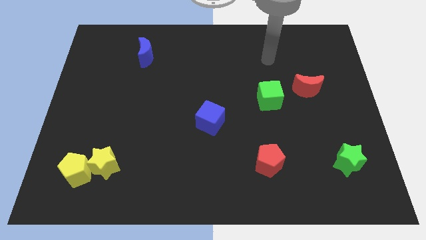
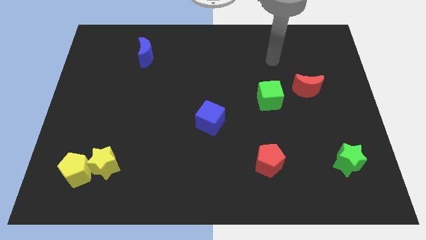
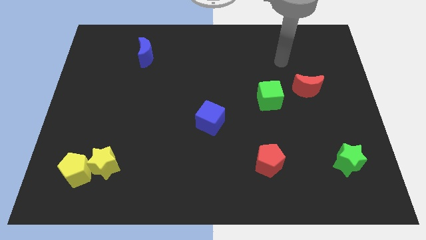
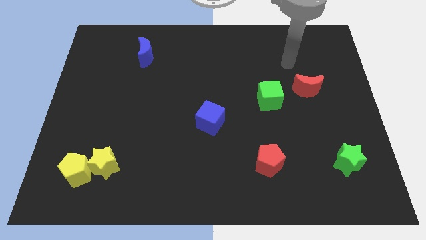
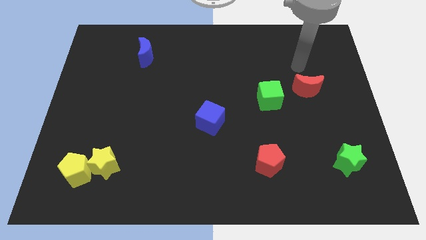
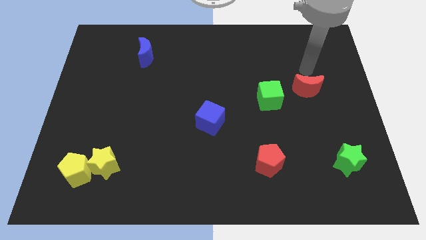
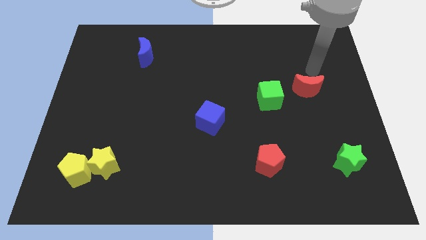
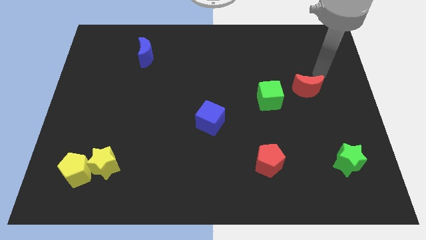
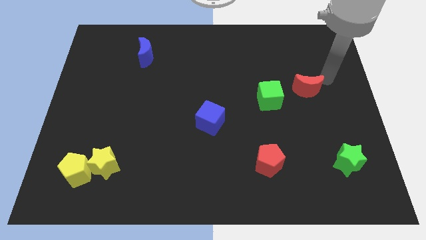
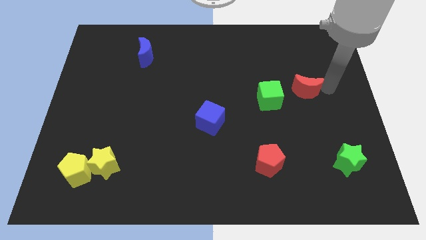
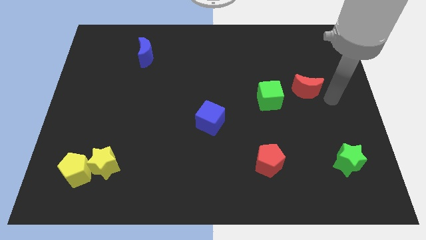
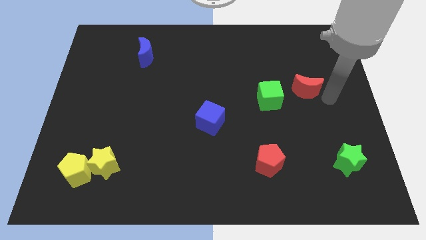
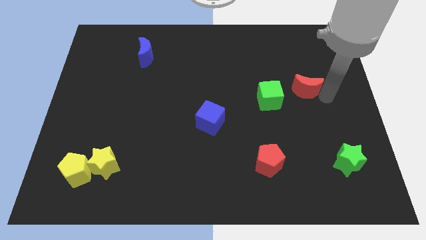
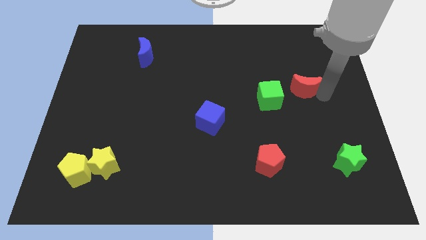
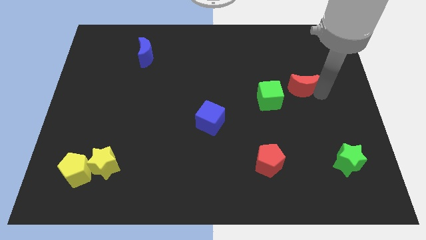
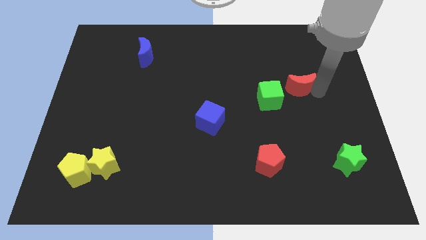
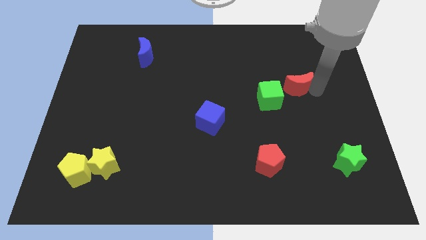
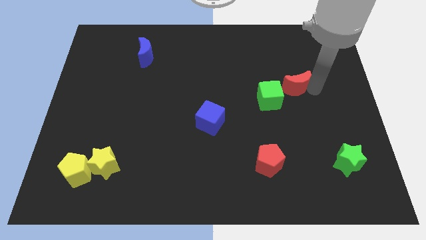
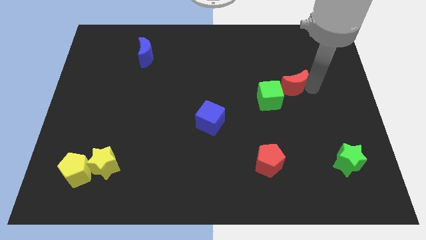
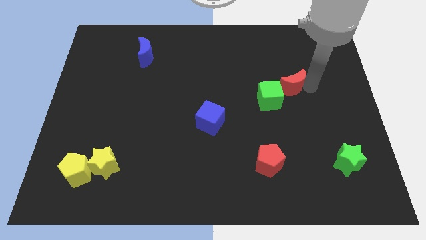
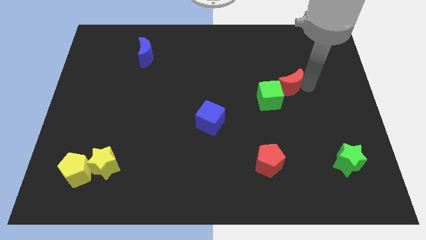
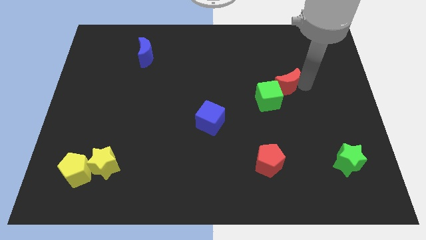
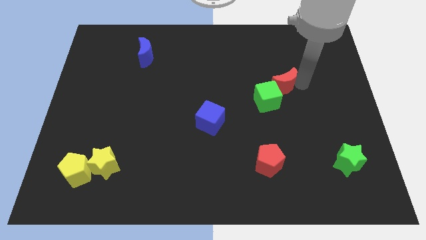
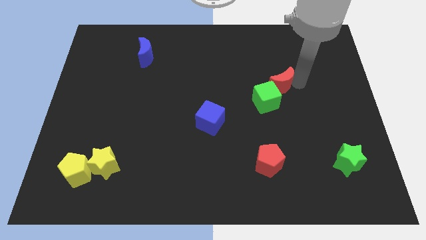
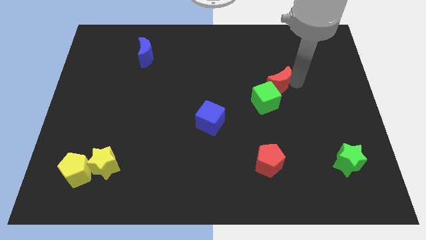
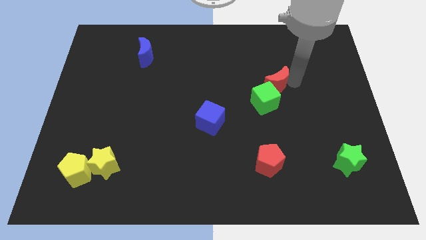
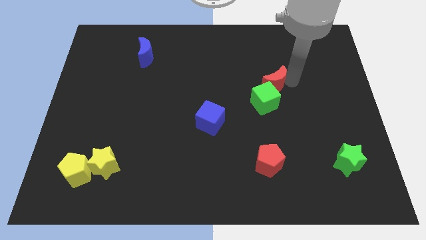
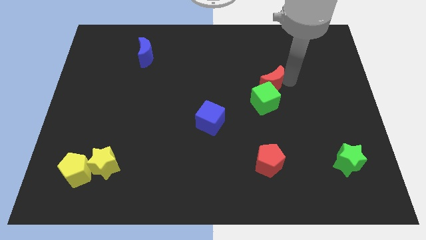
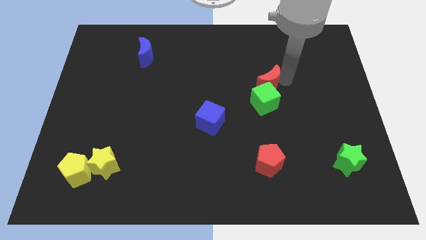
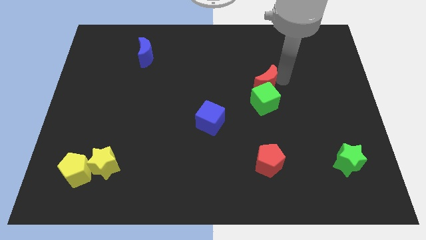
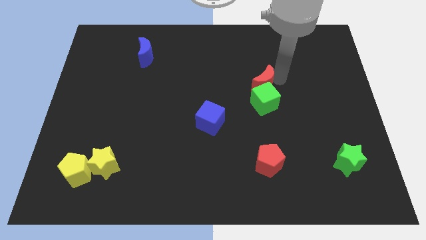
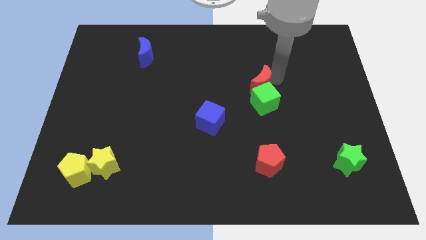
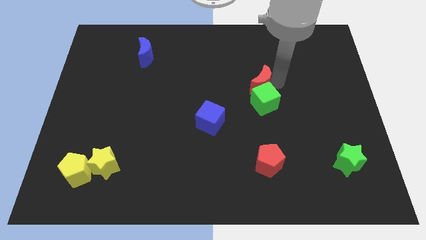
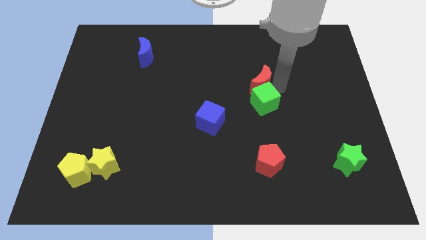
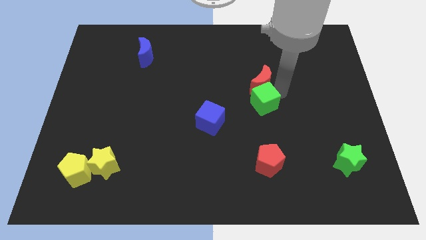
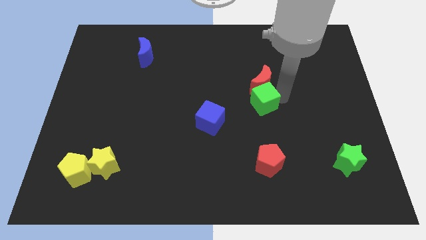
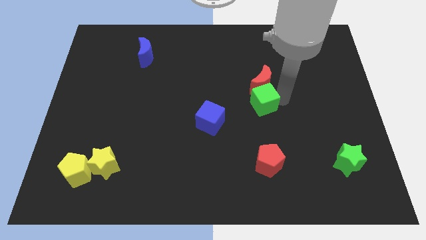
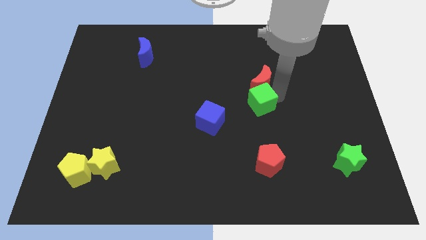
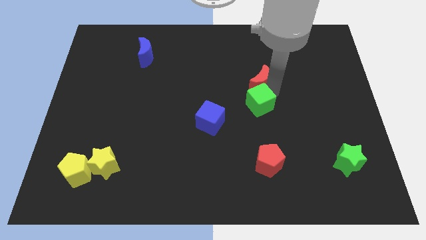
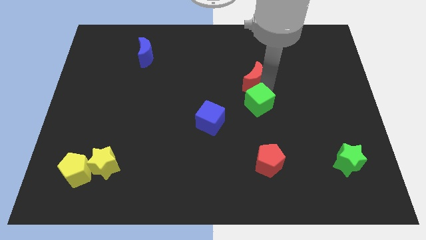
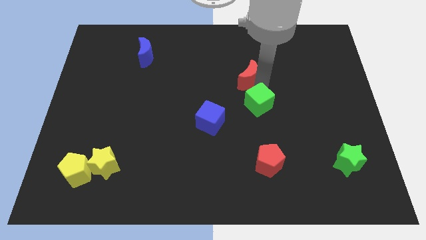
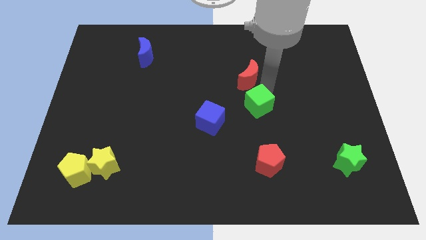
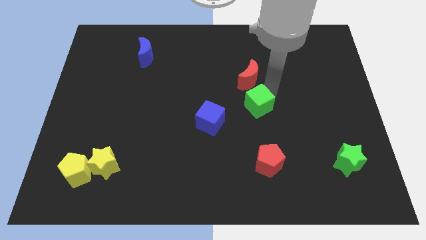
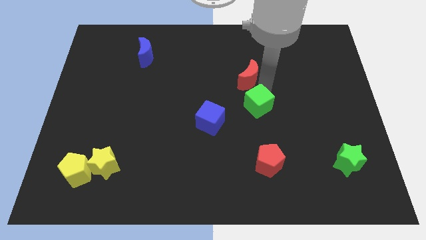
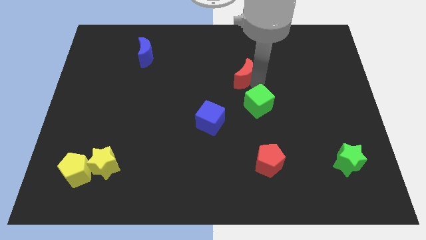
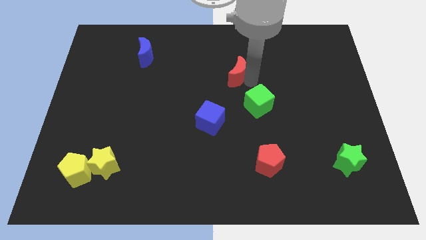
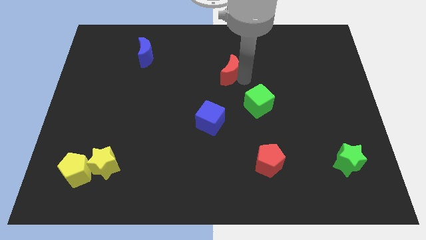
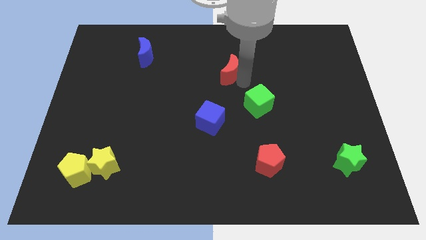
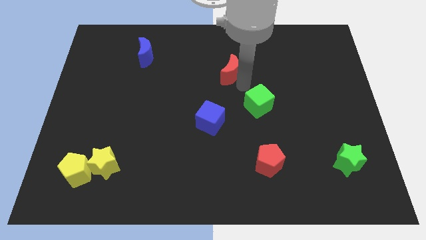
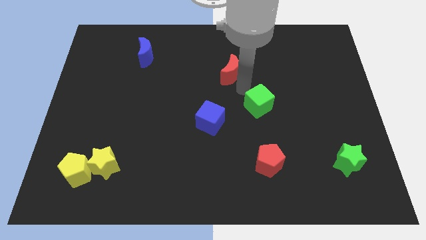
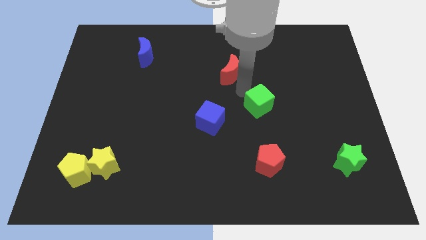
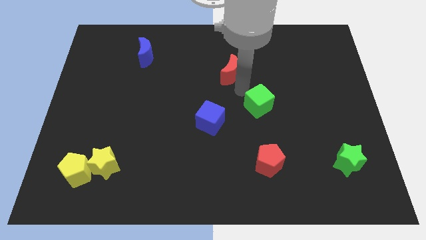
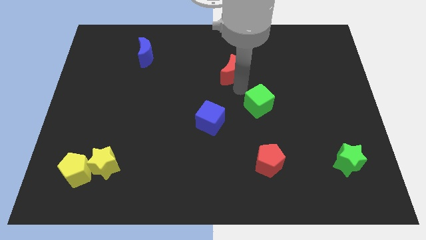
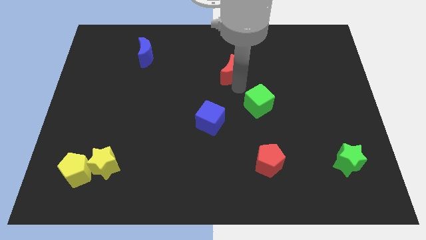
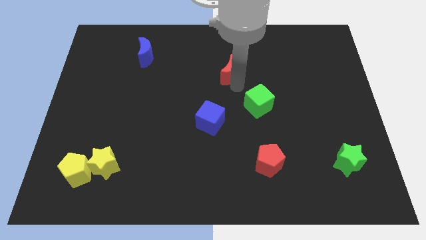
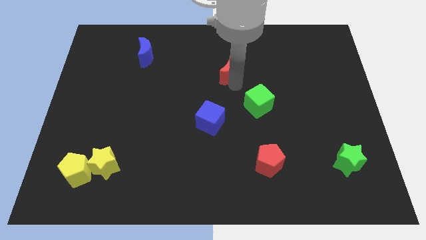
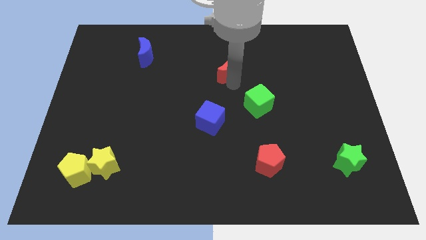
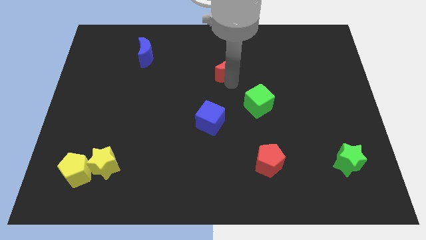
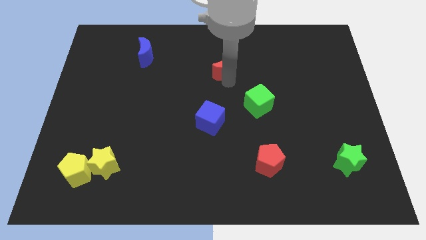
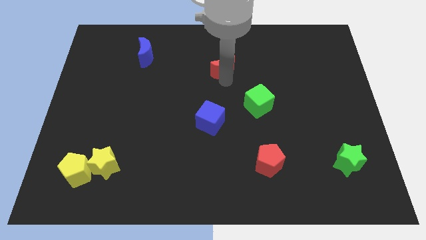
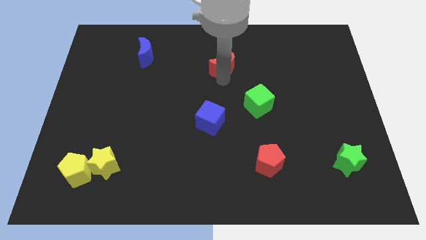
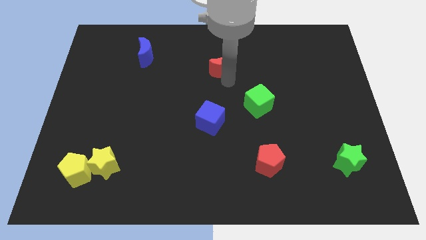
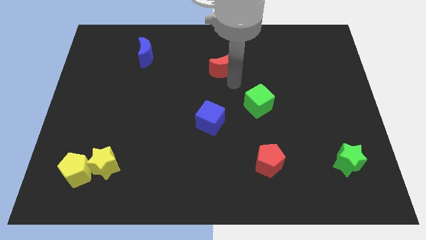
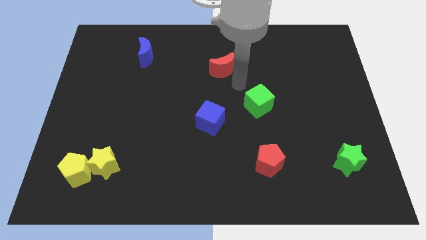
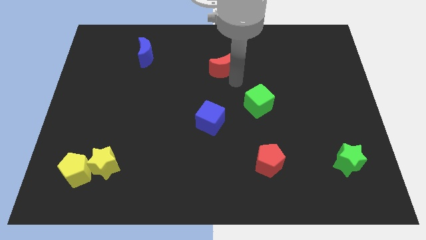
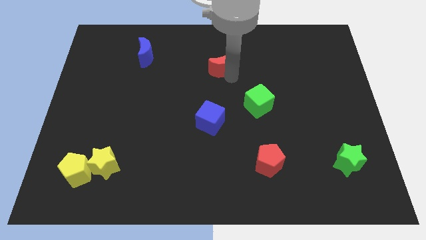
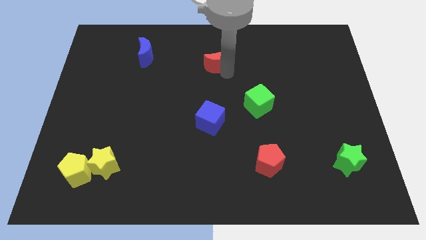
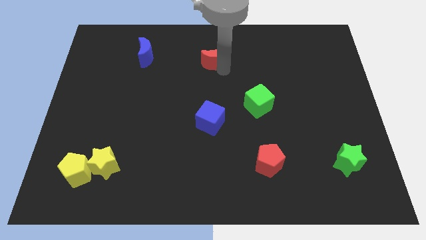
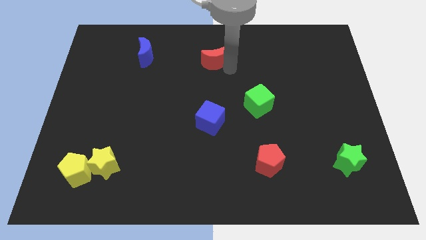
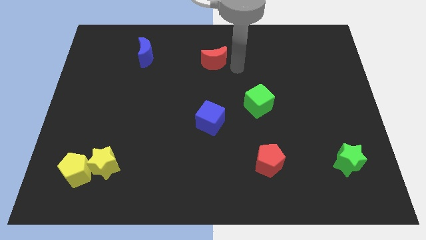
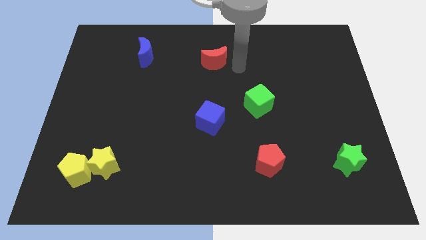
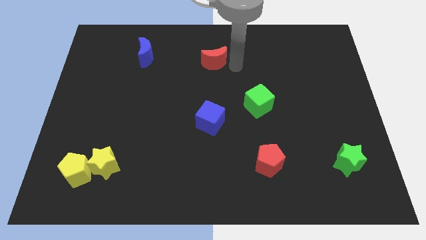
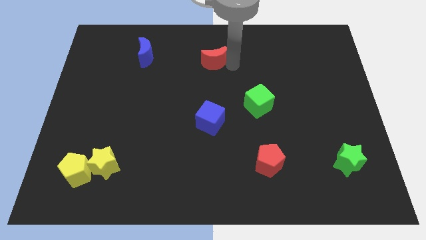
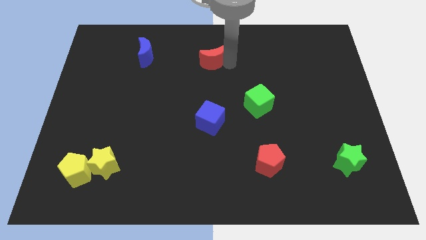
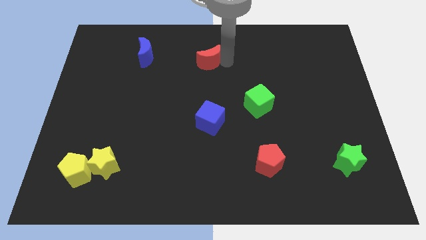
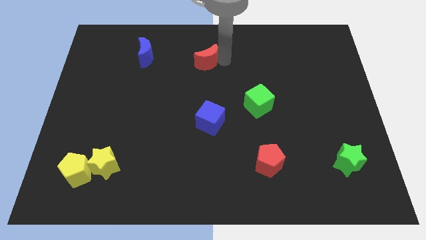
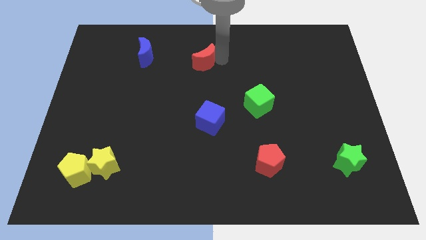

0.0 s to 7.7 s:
slide the red moon right of the blue moon
